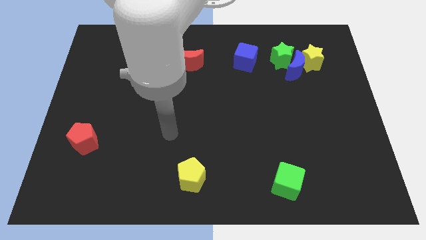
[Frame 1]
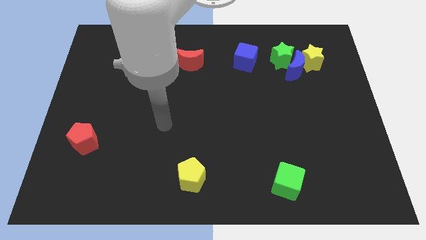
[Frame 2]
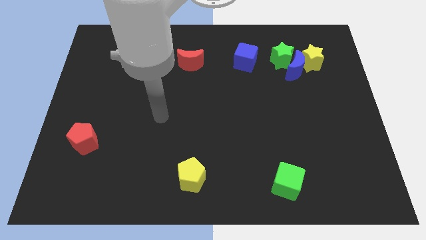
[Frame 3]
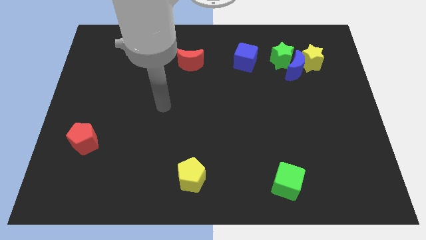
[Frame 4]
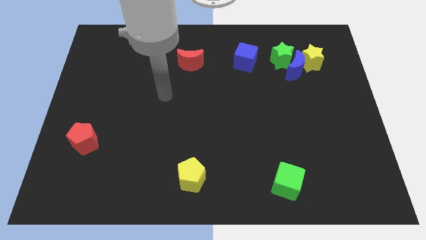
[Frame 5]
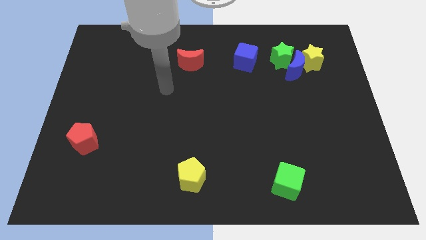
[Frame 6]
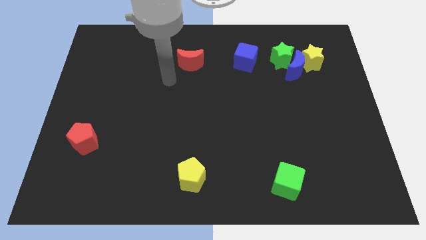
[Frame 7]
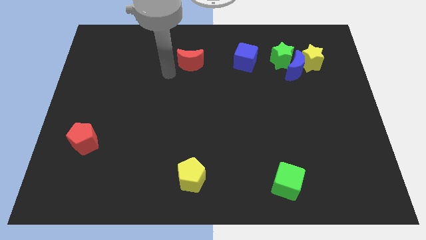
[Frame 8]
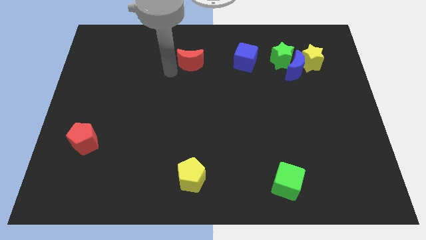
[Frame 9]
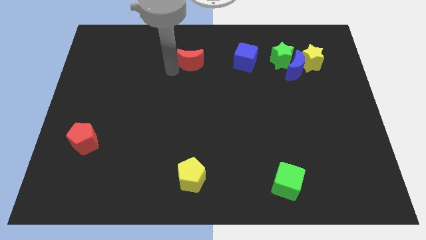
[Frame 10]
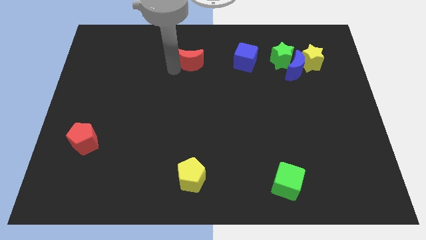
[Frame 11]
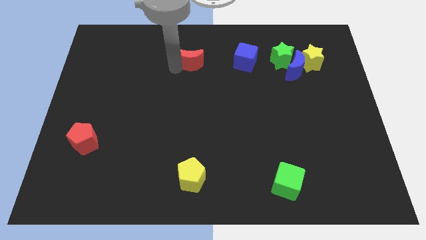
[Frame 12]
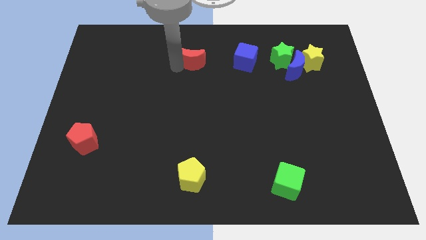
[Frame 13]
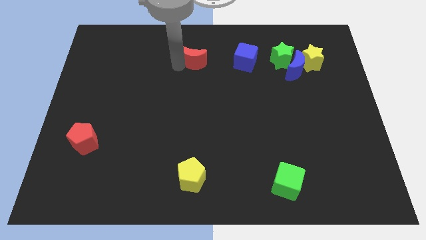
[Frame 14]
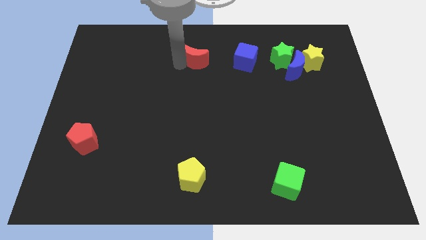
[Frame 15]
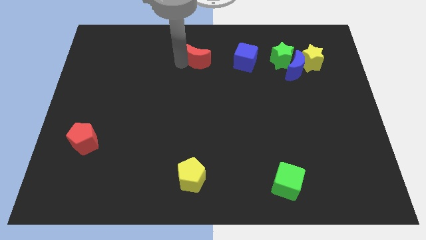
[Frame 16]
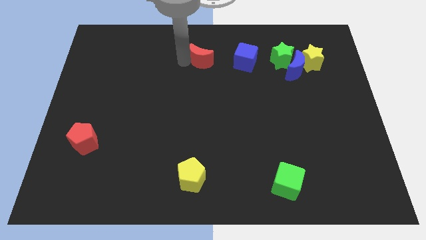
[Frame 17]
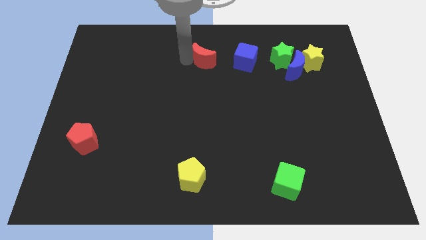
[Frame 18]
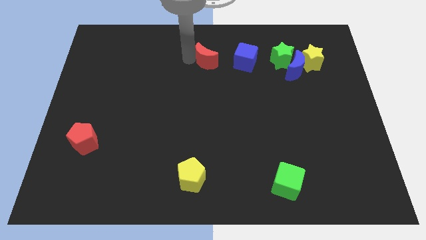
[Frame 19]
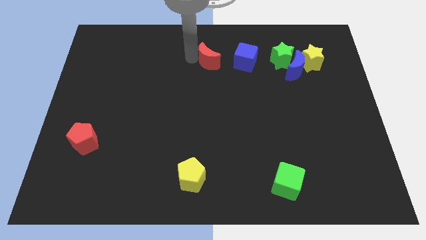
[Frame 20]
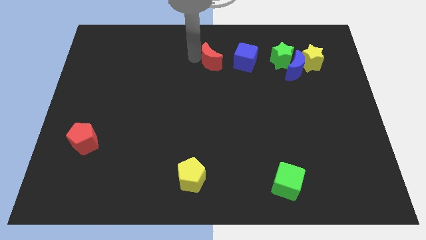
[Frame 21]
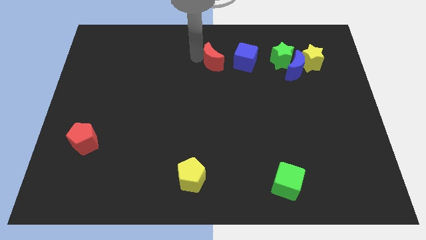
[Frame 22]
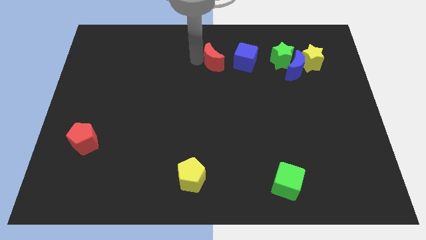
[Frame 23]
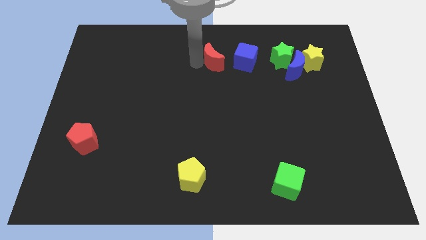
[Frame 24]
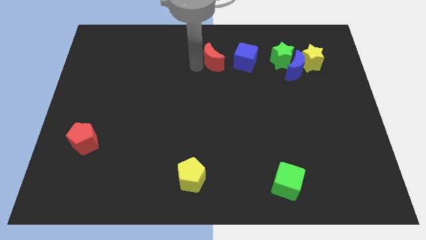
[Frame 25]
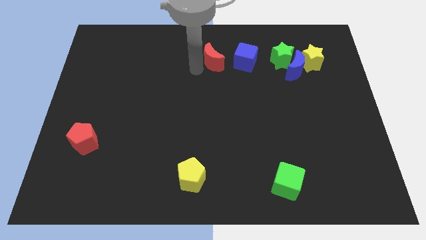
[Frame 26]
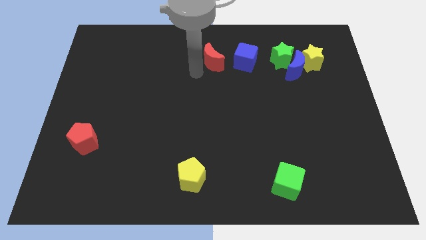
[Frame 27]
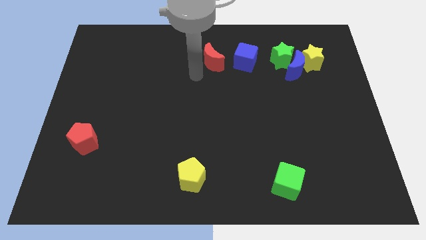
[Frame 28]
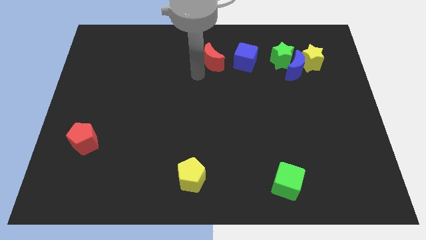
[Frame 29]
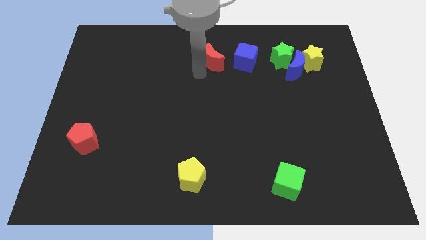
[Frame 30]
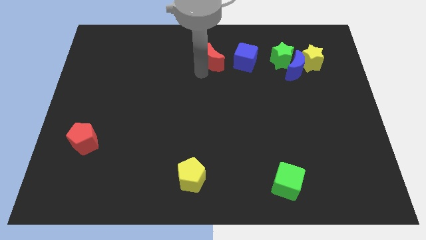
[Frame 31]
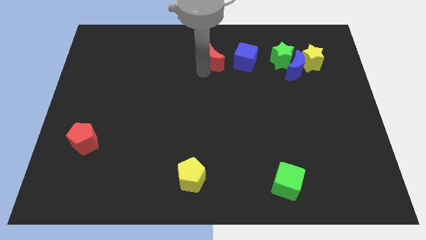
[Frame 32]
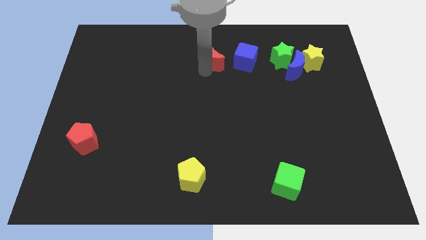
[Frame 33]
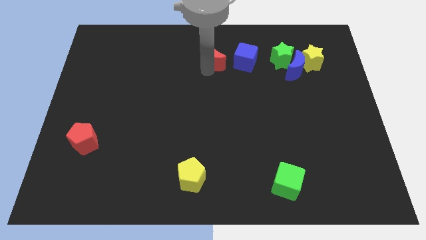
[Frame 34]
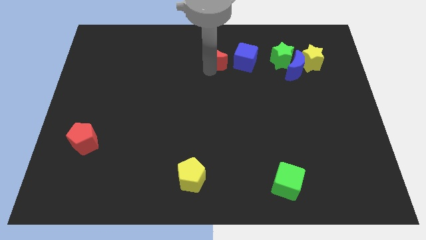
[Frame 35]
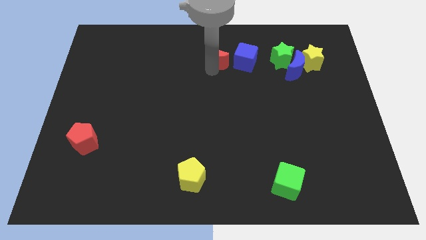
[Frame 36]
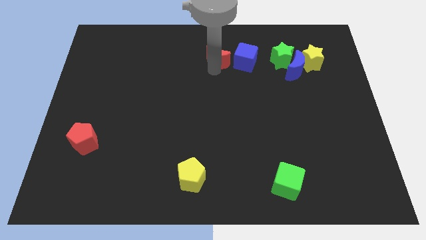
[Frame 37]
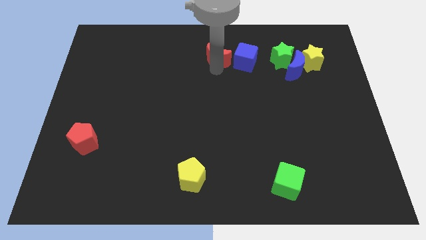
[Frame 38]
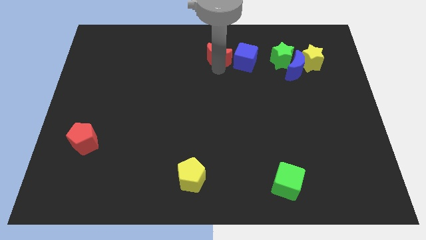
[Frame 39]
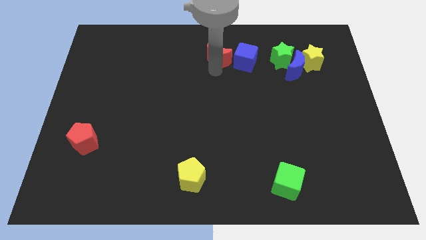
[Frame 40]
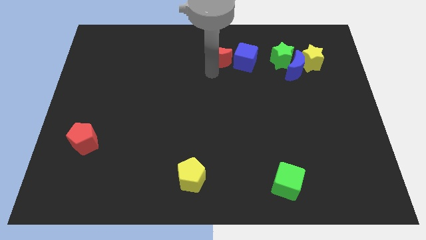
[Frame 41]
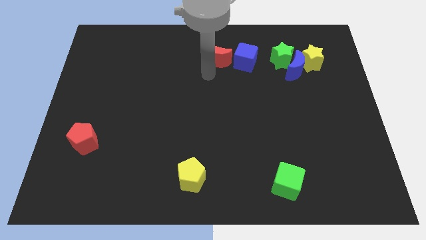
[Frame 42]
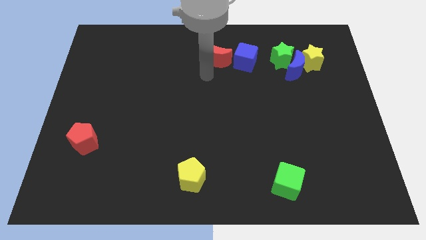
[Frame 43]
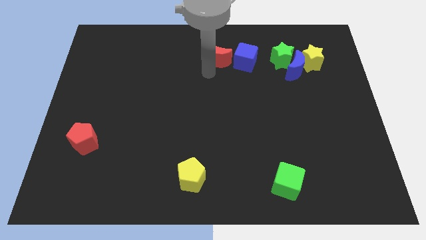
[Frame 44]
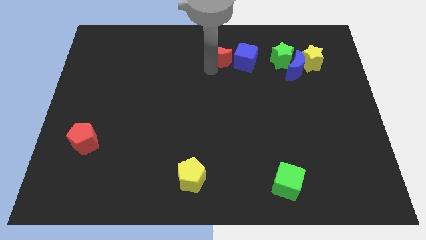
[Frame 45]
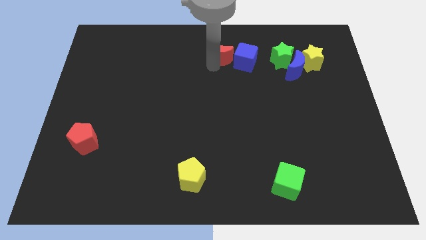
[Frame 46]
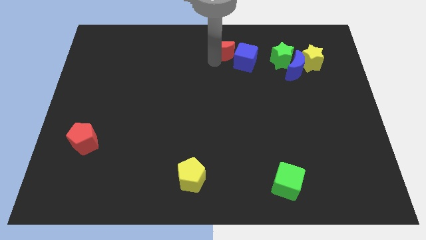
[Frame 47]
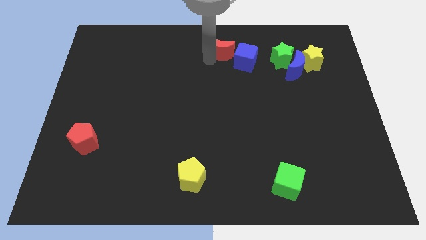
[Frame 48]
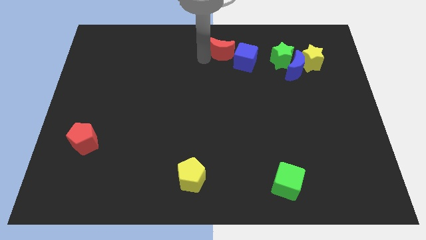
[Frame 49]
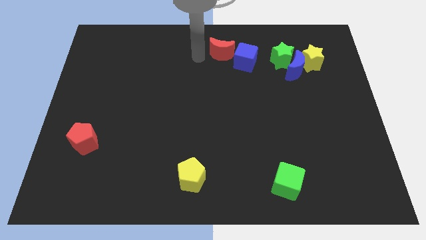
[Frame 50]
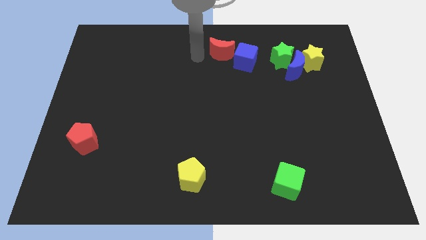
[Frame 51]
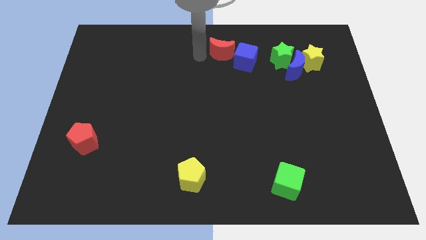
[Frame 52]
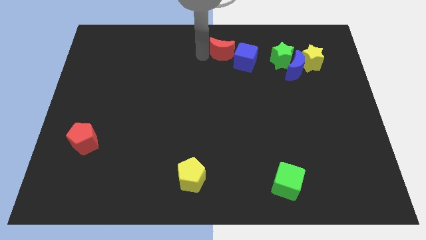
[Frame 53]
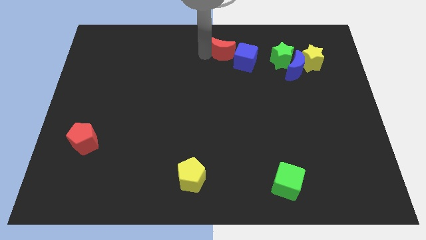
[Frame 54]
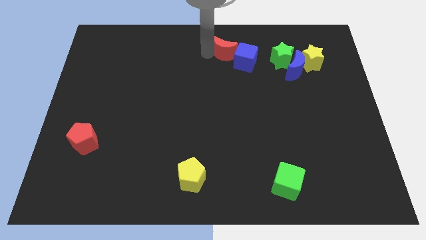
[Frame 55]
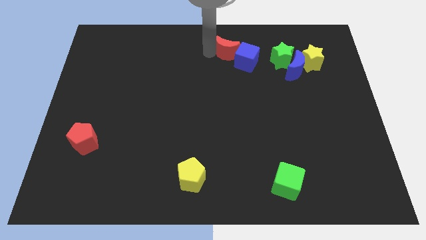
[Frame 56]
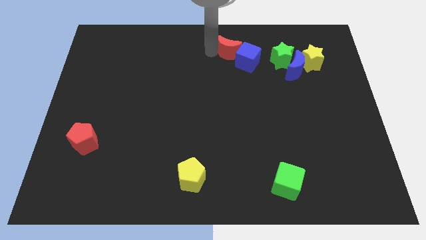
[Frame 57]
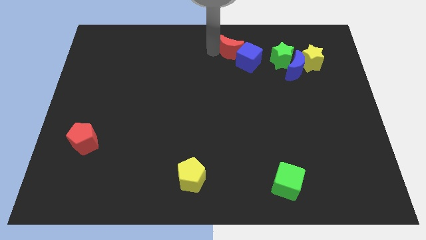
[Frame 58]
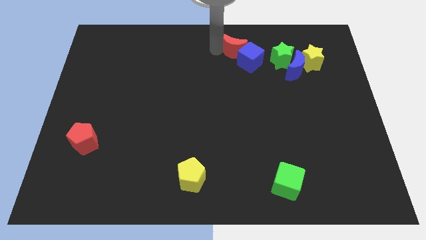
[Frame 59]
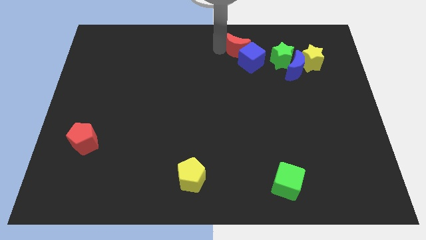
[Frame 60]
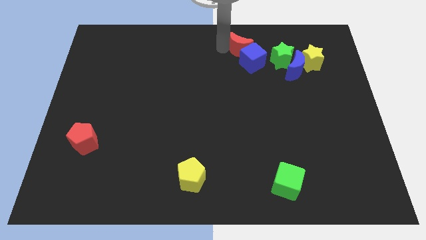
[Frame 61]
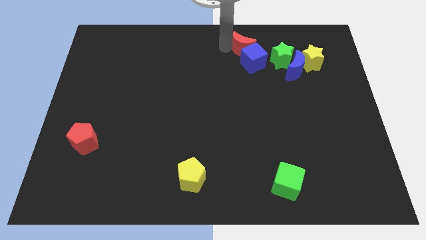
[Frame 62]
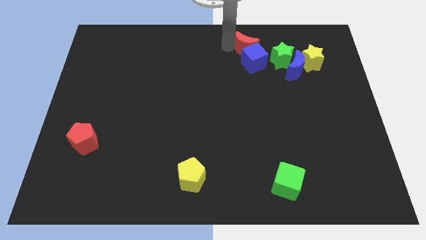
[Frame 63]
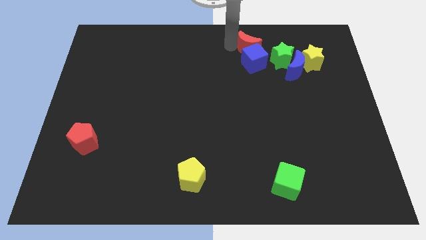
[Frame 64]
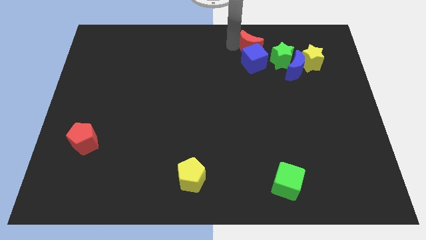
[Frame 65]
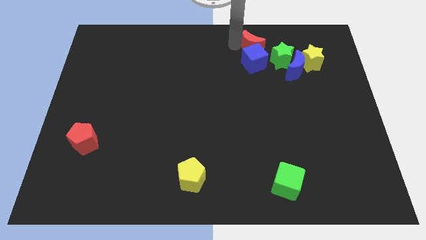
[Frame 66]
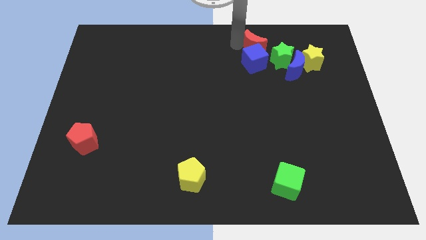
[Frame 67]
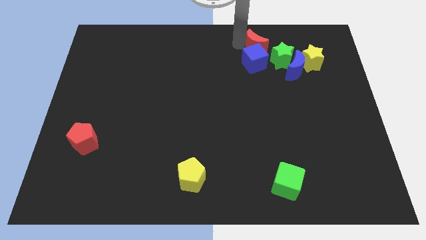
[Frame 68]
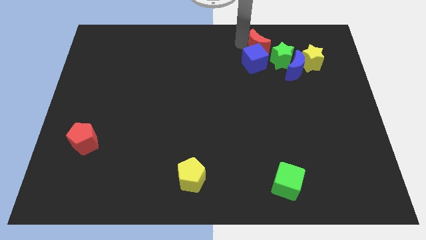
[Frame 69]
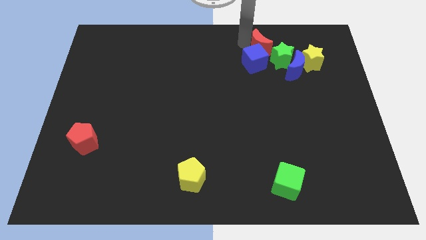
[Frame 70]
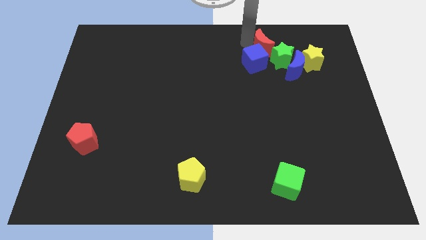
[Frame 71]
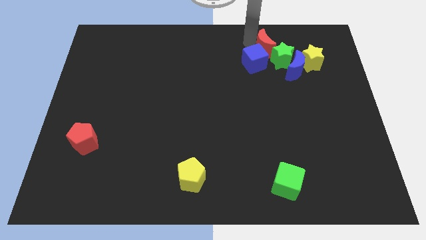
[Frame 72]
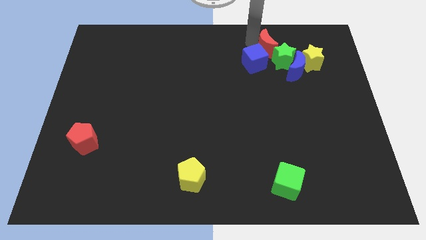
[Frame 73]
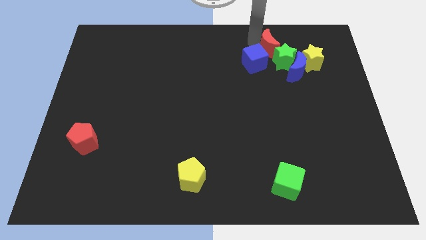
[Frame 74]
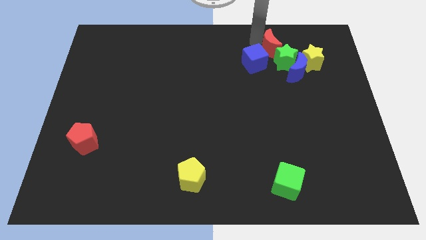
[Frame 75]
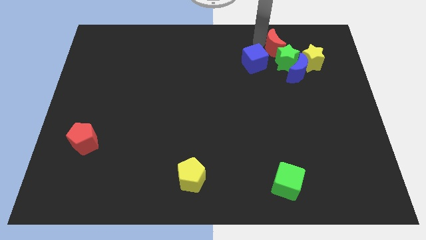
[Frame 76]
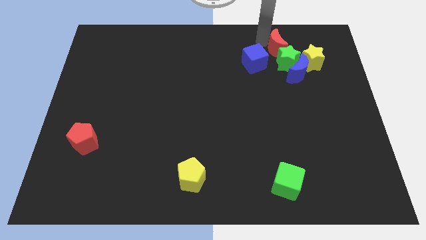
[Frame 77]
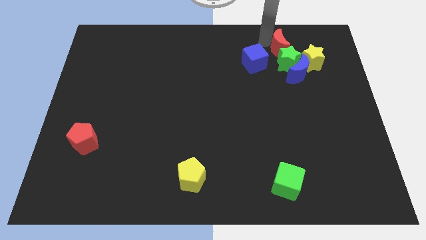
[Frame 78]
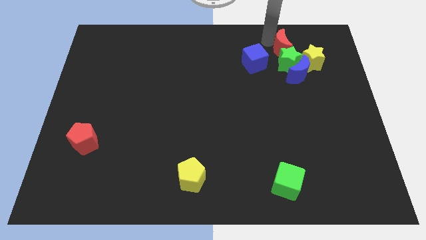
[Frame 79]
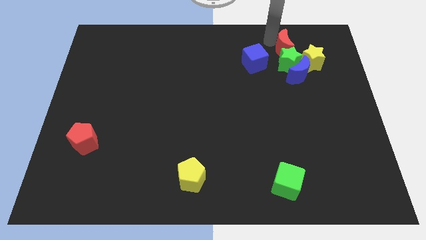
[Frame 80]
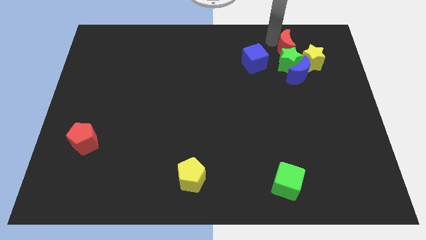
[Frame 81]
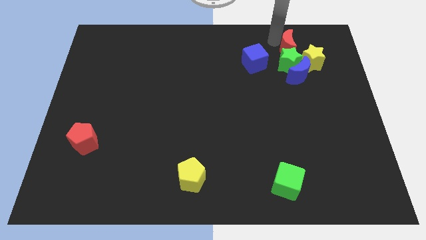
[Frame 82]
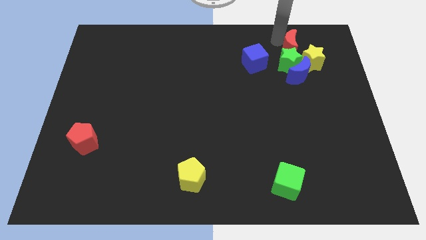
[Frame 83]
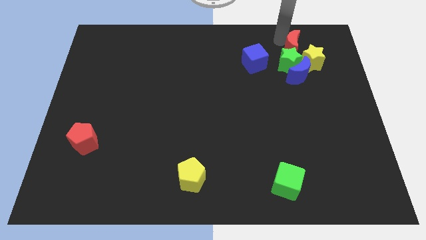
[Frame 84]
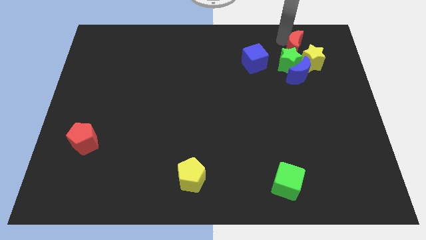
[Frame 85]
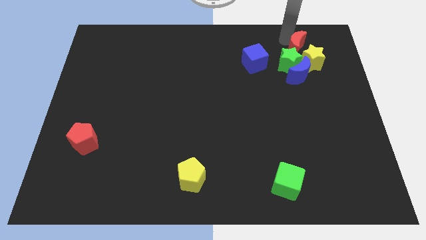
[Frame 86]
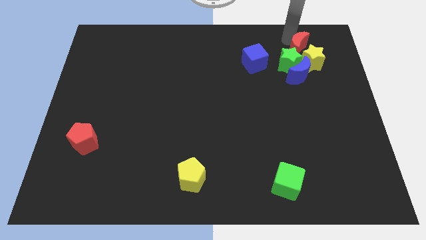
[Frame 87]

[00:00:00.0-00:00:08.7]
slide the red moon to the yellow star
